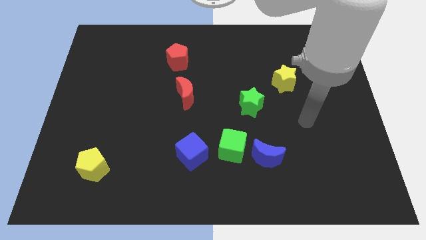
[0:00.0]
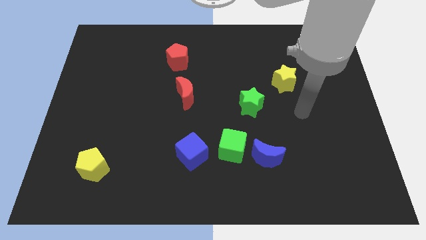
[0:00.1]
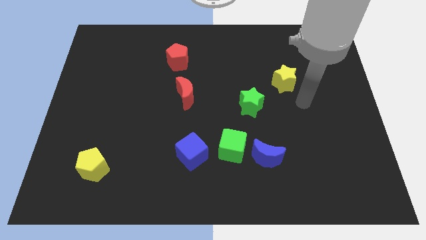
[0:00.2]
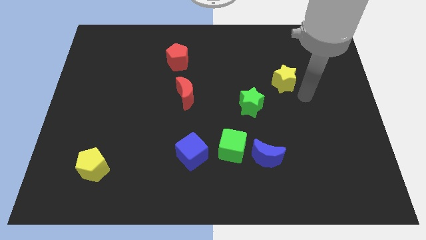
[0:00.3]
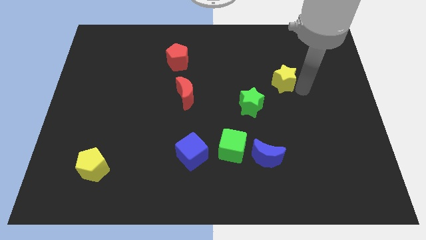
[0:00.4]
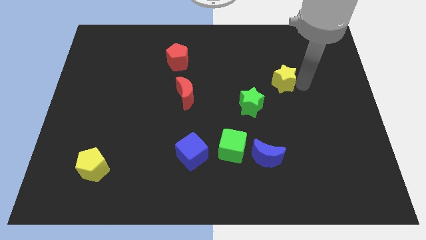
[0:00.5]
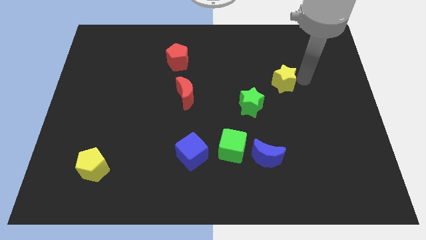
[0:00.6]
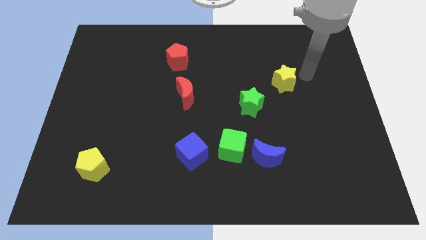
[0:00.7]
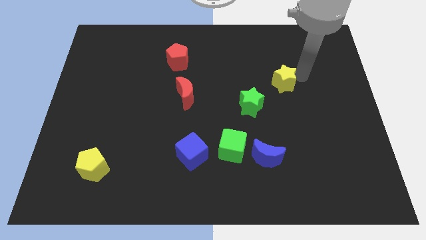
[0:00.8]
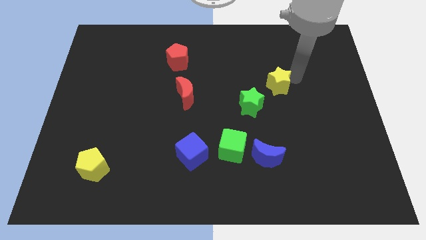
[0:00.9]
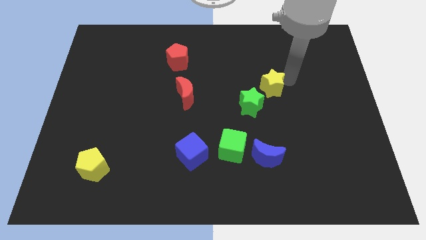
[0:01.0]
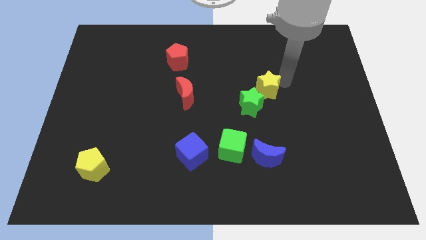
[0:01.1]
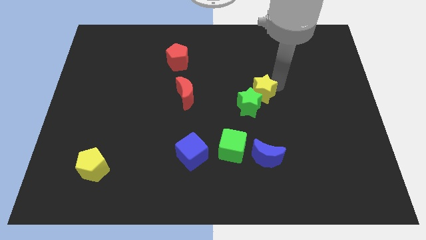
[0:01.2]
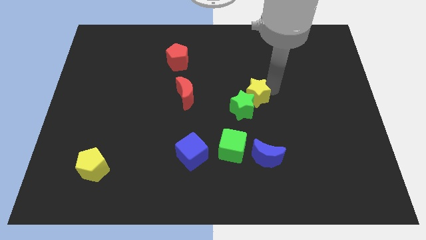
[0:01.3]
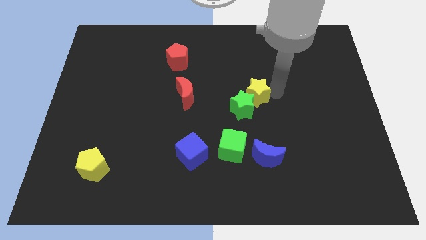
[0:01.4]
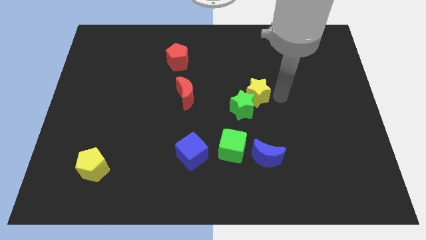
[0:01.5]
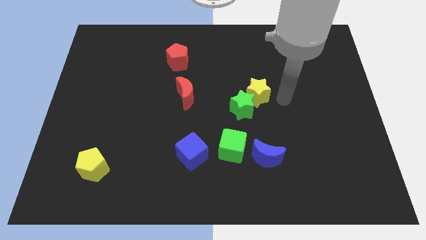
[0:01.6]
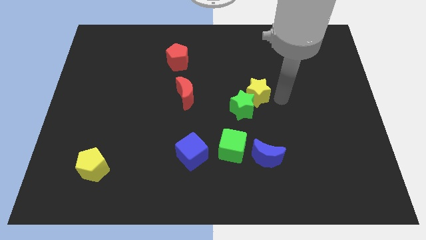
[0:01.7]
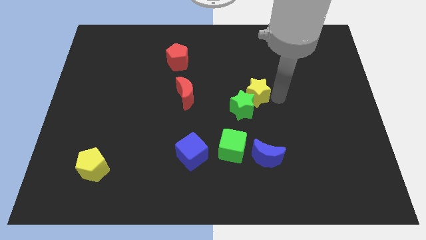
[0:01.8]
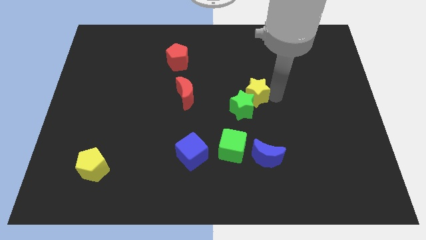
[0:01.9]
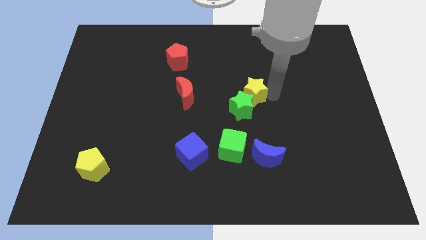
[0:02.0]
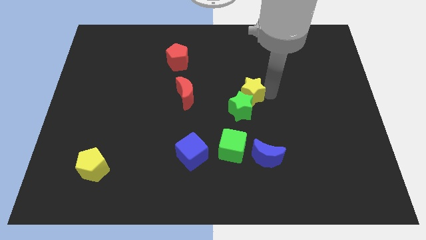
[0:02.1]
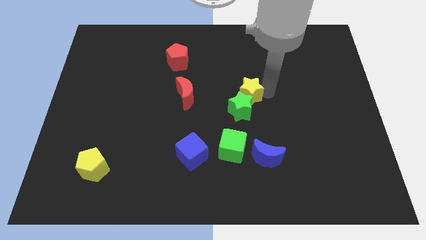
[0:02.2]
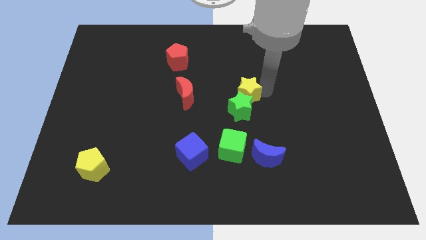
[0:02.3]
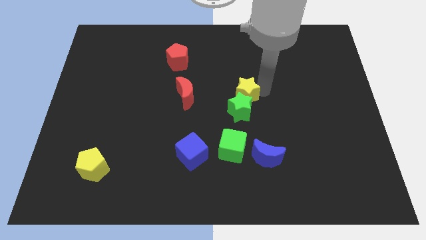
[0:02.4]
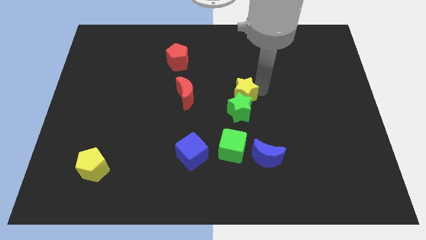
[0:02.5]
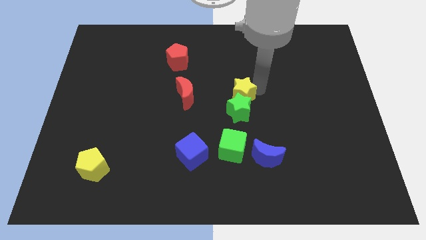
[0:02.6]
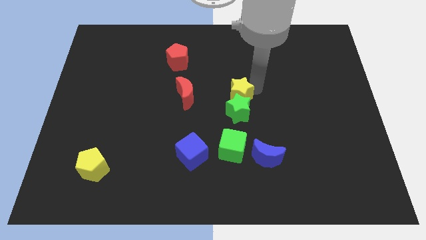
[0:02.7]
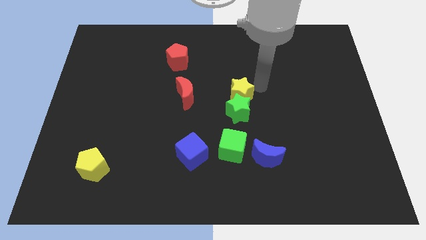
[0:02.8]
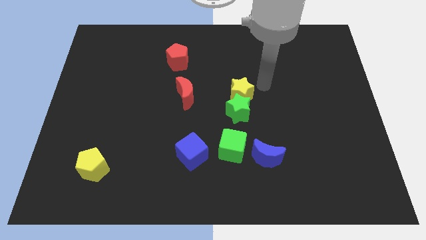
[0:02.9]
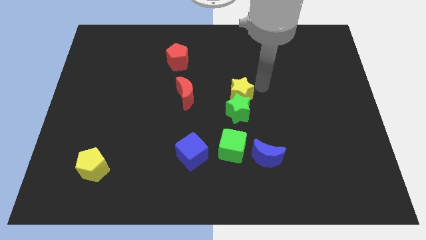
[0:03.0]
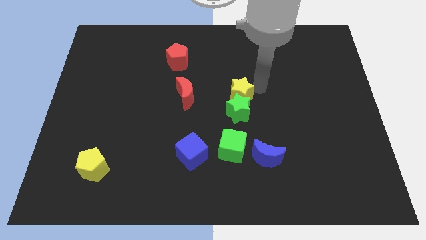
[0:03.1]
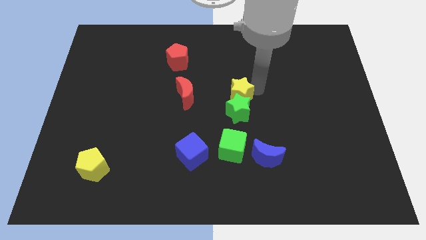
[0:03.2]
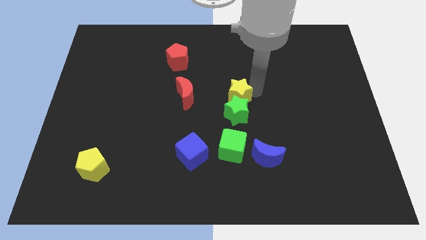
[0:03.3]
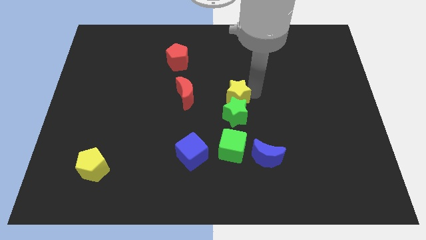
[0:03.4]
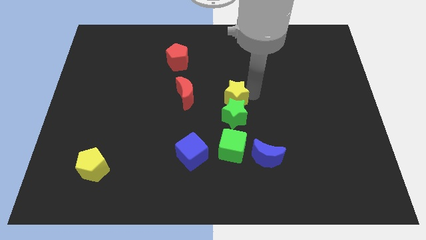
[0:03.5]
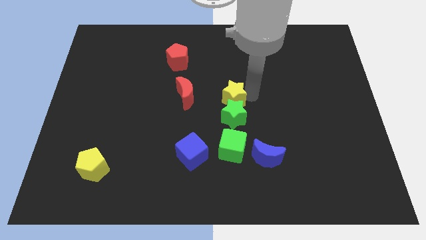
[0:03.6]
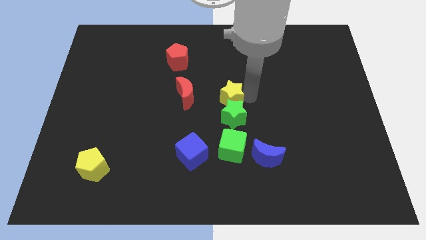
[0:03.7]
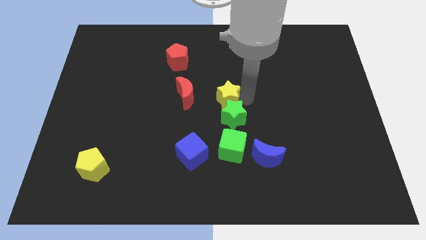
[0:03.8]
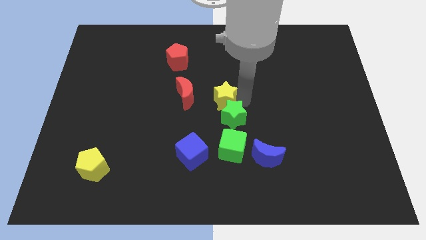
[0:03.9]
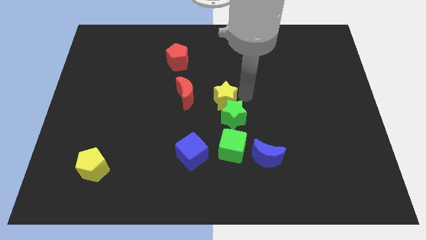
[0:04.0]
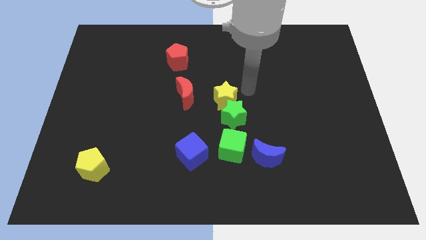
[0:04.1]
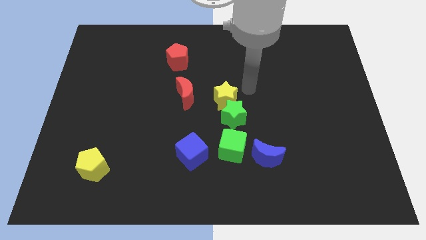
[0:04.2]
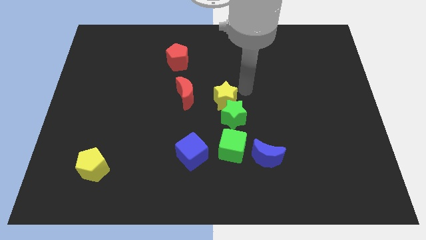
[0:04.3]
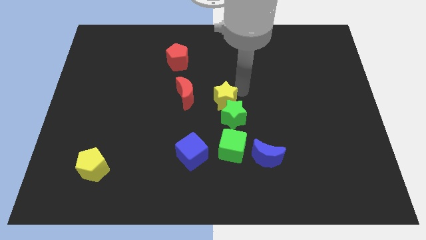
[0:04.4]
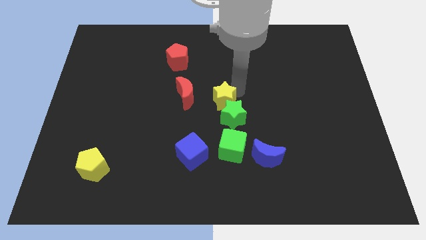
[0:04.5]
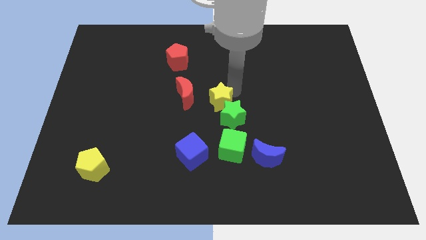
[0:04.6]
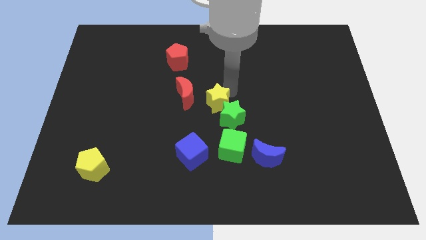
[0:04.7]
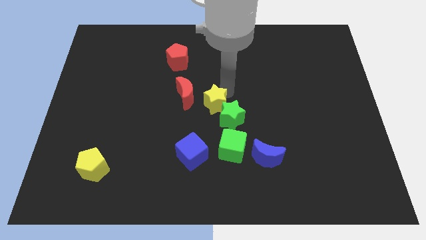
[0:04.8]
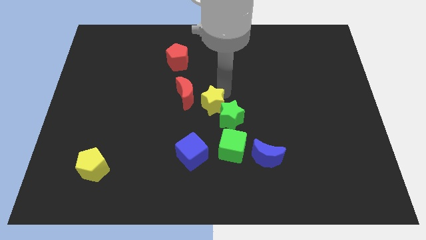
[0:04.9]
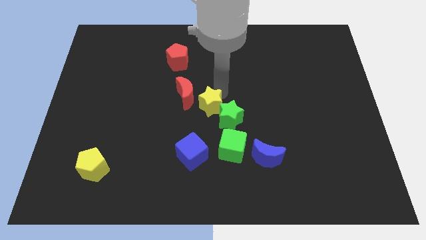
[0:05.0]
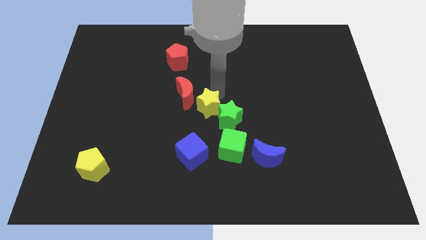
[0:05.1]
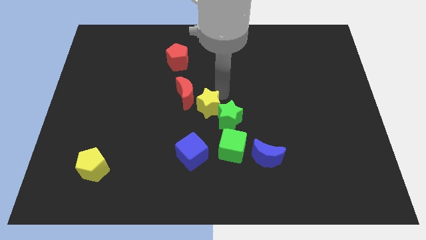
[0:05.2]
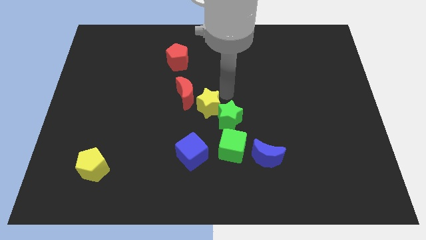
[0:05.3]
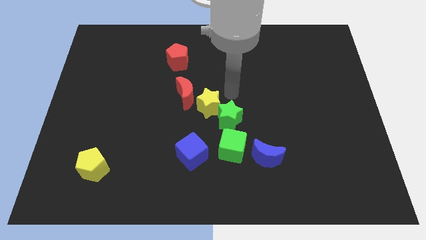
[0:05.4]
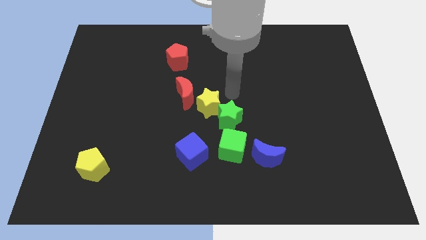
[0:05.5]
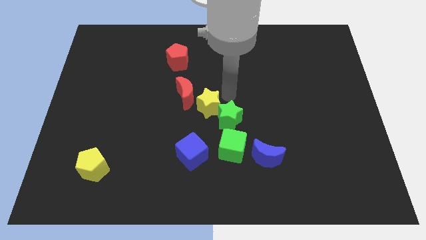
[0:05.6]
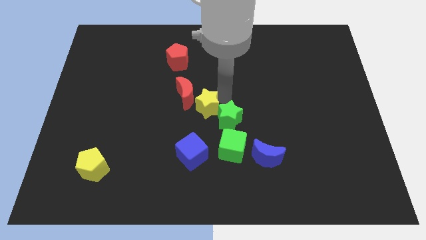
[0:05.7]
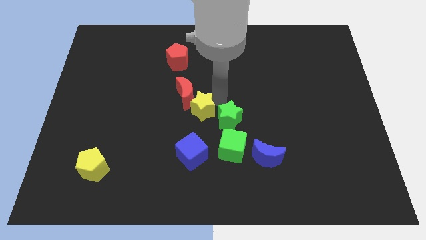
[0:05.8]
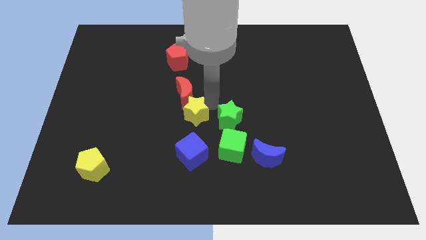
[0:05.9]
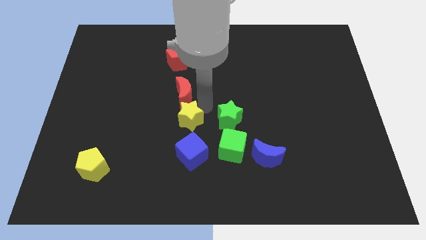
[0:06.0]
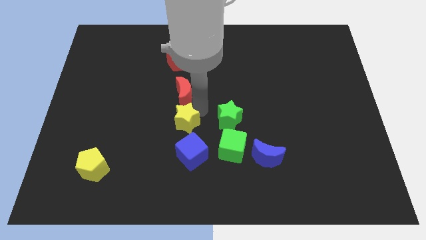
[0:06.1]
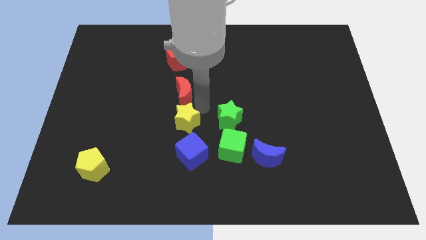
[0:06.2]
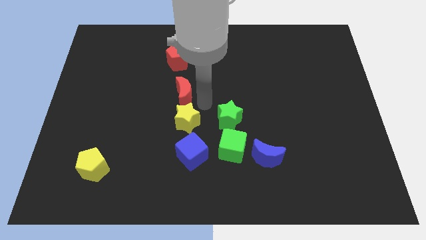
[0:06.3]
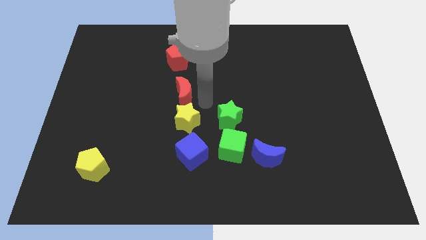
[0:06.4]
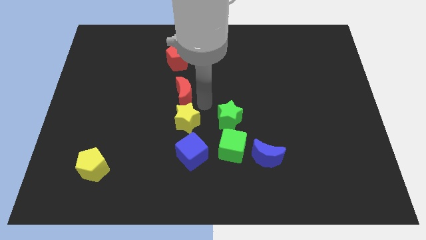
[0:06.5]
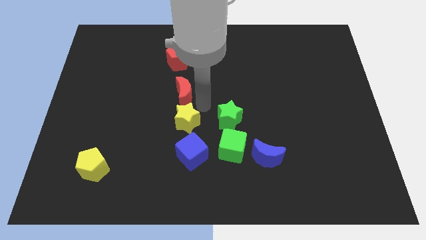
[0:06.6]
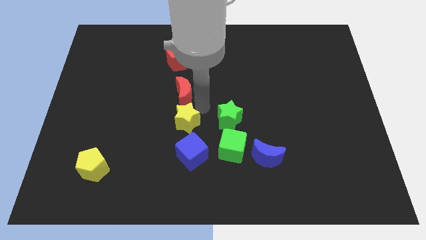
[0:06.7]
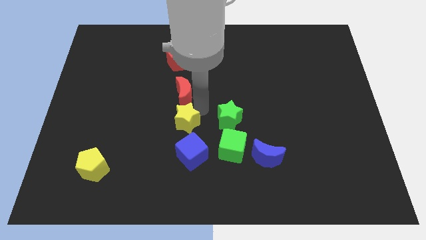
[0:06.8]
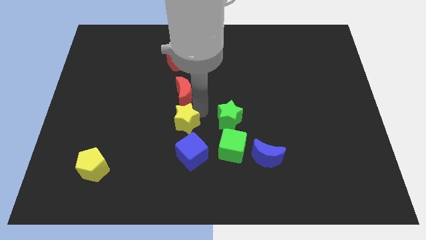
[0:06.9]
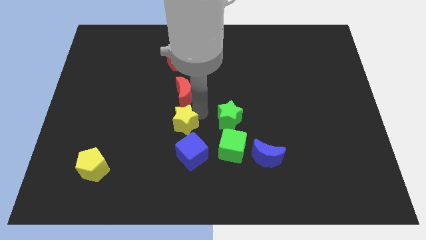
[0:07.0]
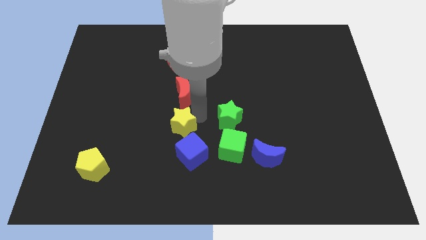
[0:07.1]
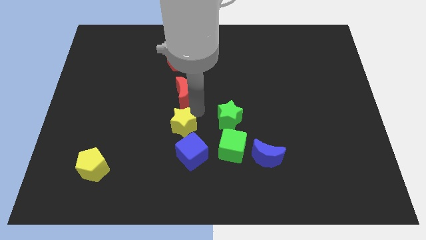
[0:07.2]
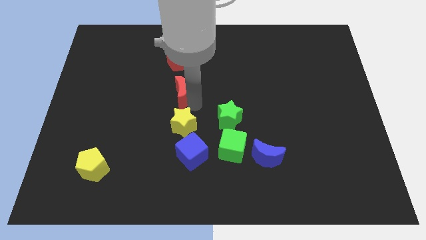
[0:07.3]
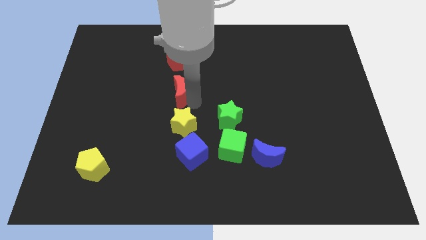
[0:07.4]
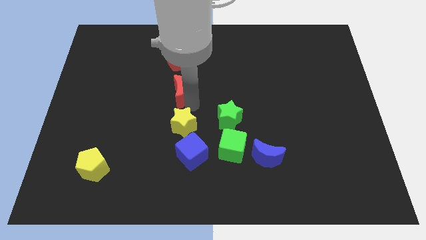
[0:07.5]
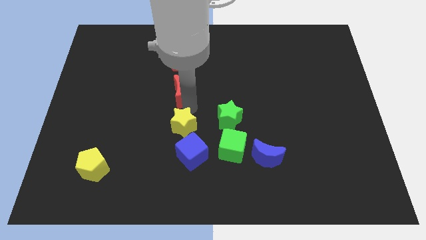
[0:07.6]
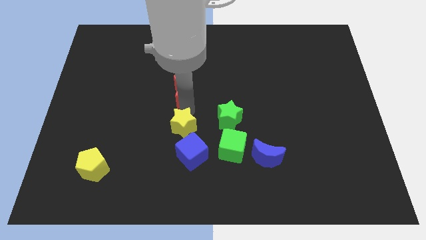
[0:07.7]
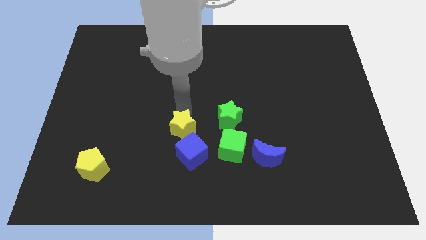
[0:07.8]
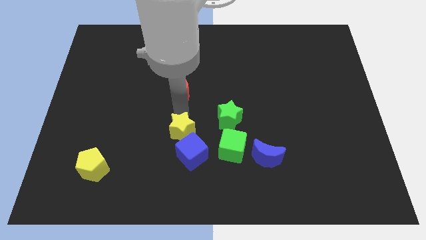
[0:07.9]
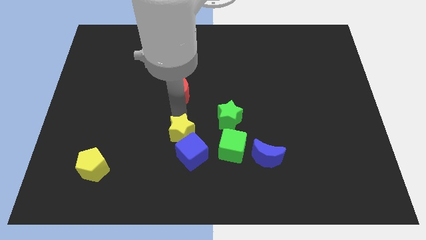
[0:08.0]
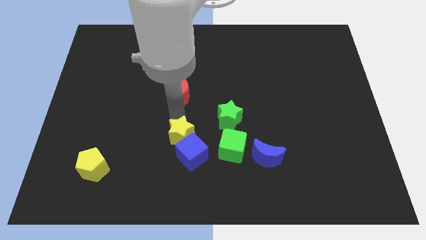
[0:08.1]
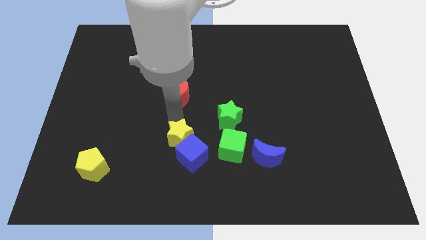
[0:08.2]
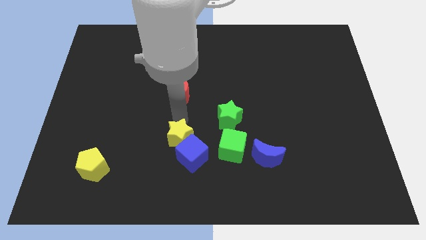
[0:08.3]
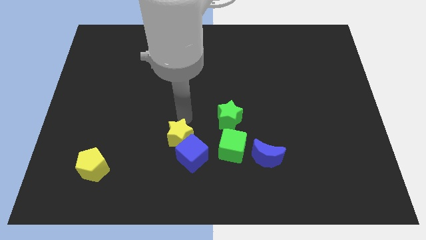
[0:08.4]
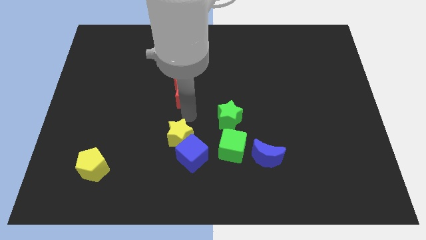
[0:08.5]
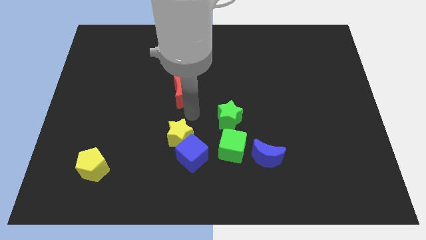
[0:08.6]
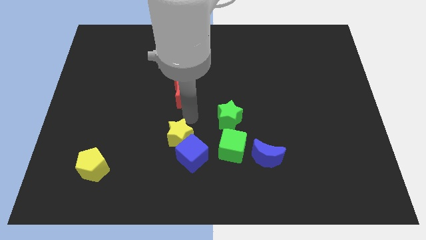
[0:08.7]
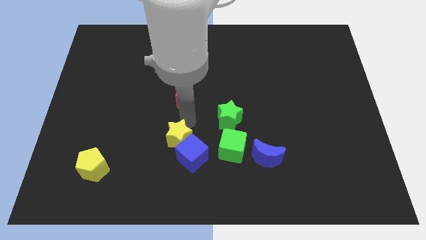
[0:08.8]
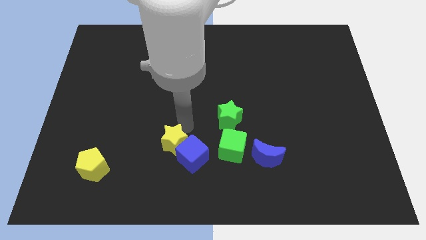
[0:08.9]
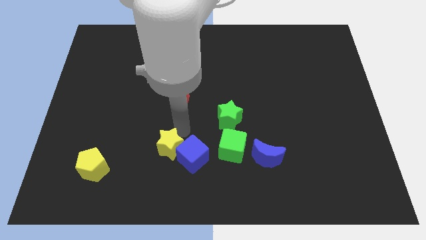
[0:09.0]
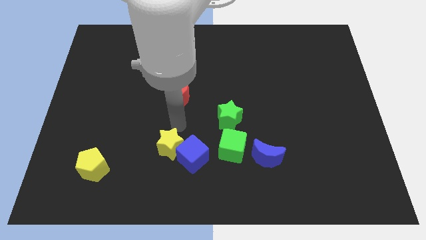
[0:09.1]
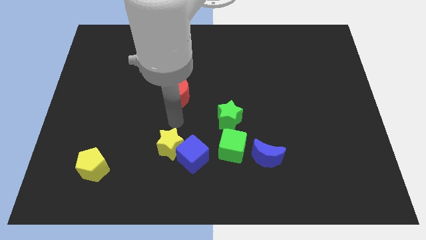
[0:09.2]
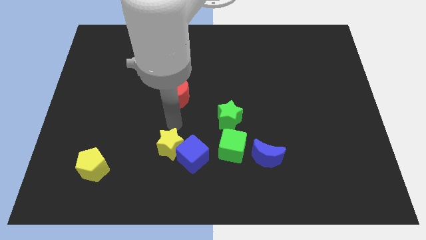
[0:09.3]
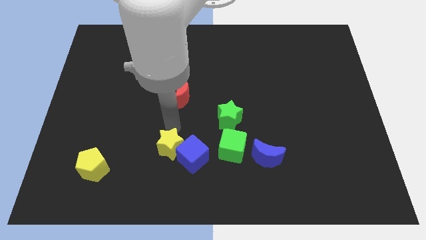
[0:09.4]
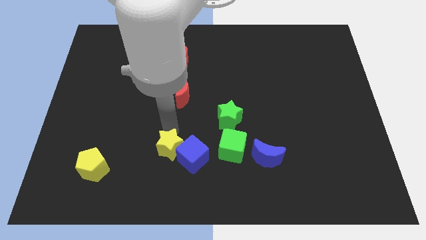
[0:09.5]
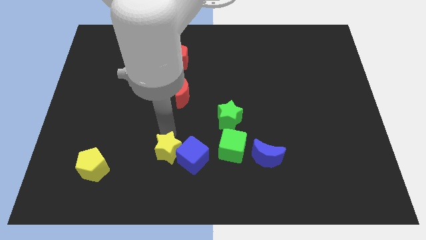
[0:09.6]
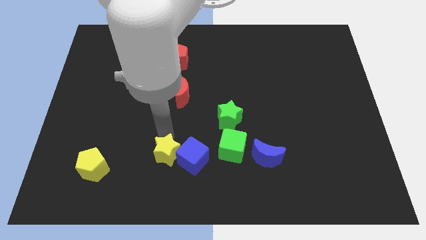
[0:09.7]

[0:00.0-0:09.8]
push the yellow star to the bottom left side of the blue cube
